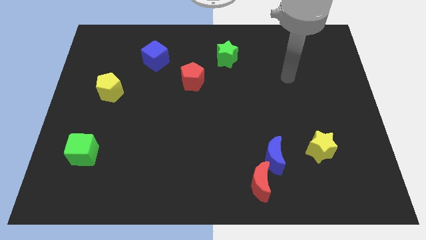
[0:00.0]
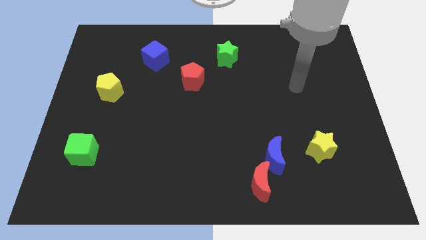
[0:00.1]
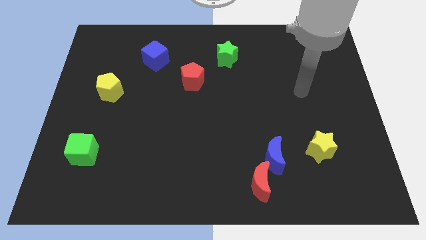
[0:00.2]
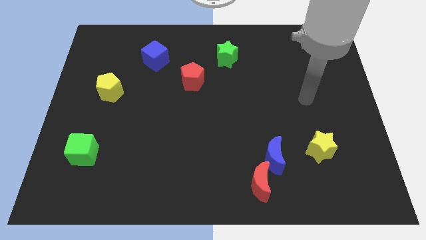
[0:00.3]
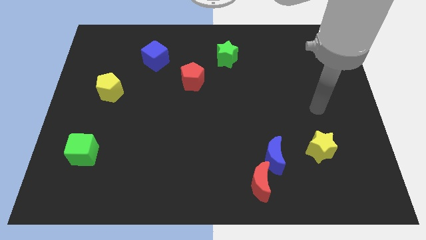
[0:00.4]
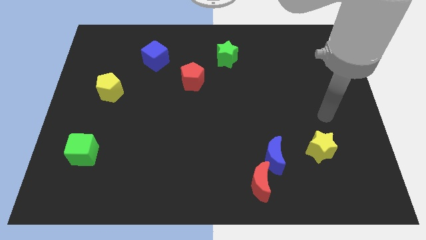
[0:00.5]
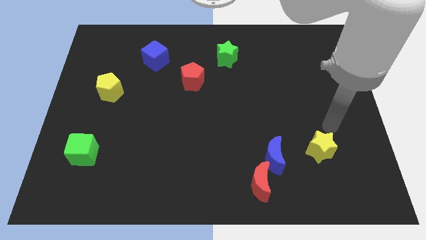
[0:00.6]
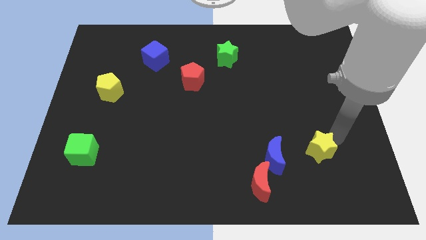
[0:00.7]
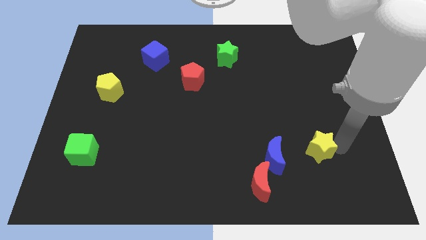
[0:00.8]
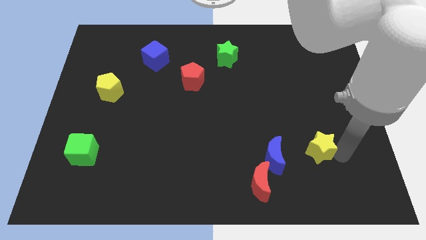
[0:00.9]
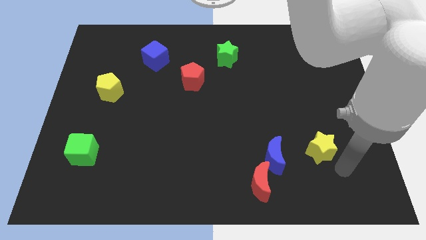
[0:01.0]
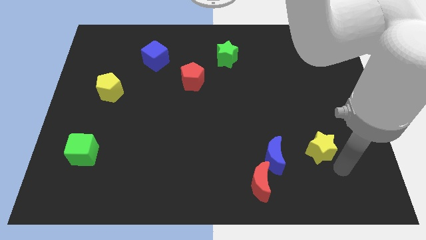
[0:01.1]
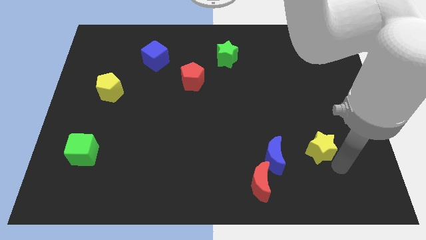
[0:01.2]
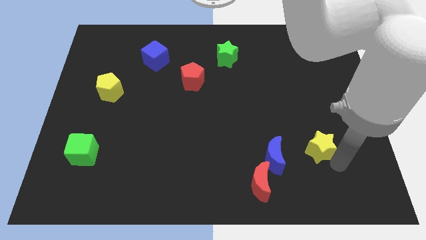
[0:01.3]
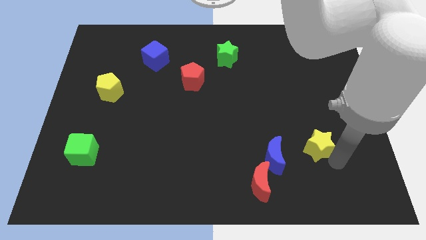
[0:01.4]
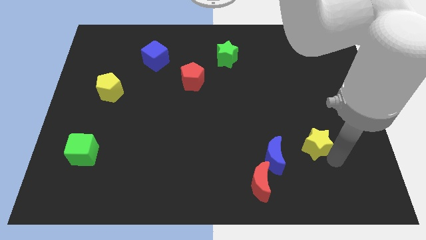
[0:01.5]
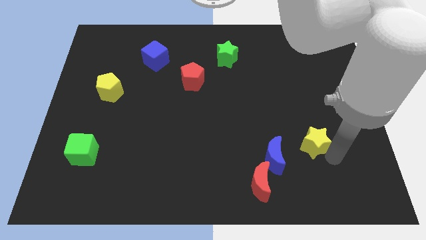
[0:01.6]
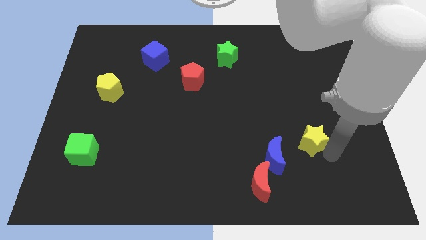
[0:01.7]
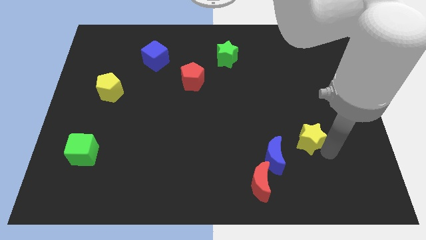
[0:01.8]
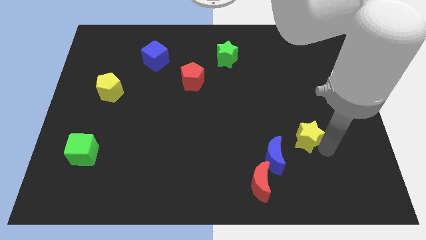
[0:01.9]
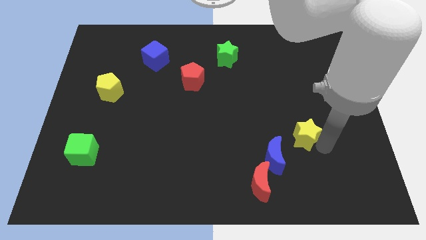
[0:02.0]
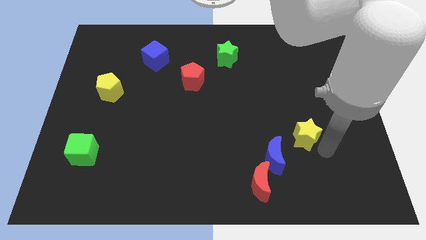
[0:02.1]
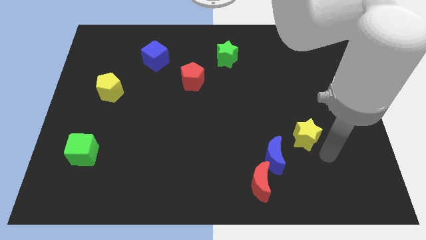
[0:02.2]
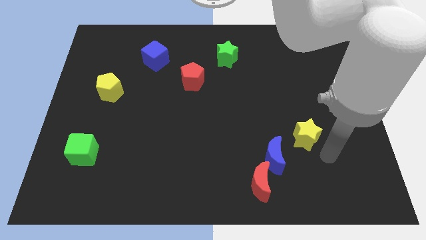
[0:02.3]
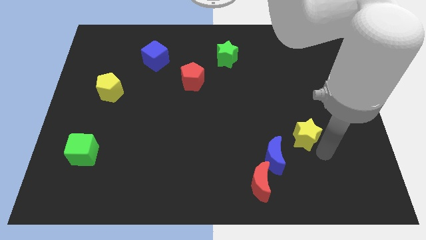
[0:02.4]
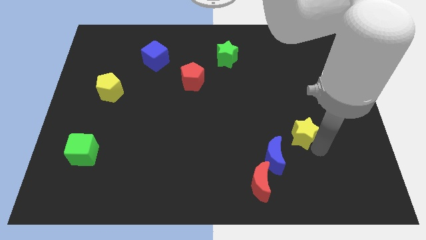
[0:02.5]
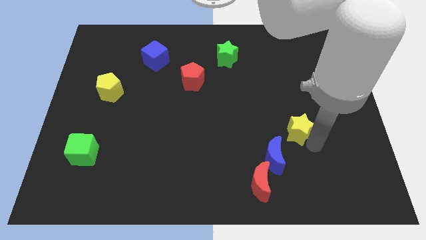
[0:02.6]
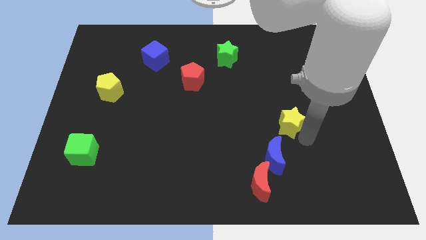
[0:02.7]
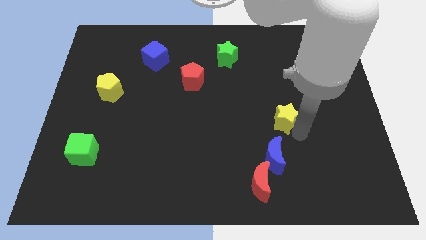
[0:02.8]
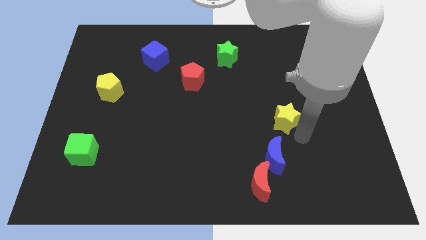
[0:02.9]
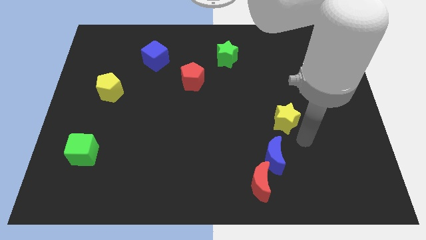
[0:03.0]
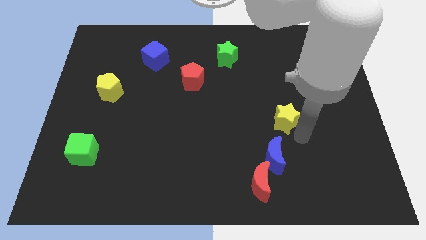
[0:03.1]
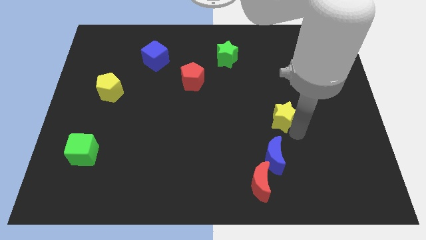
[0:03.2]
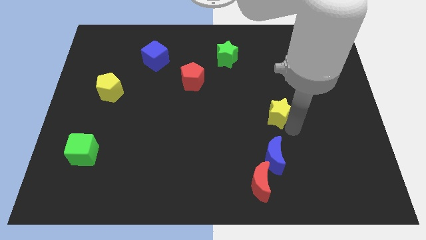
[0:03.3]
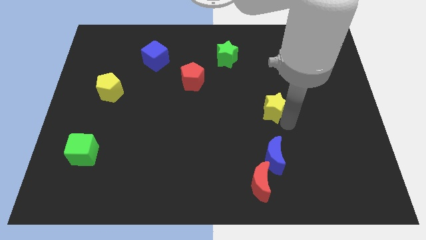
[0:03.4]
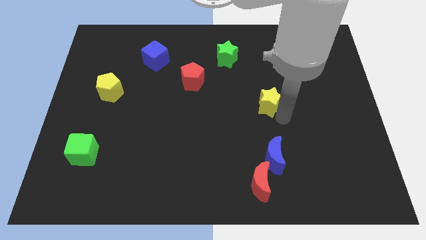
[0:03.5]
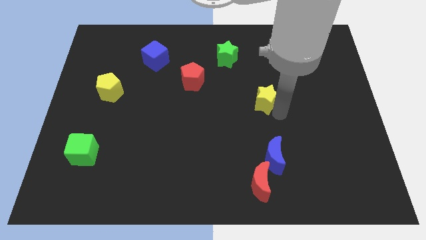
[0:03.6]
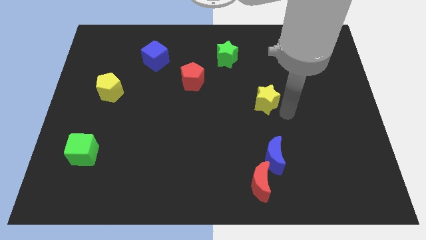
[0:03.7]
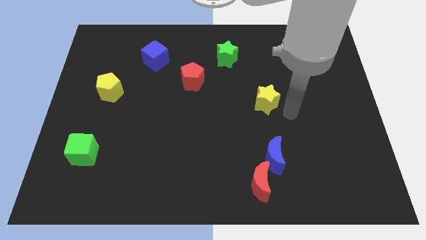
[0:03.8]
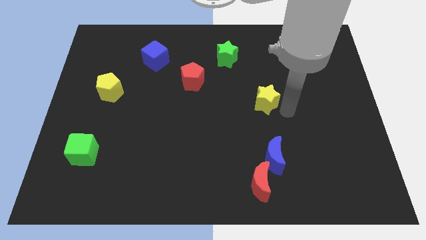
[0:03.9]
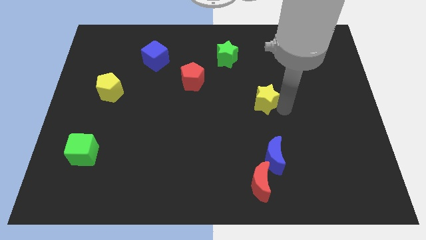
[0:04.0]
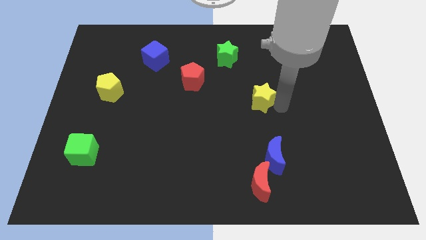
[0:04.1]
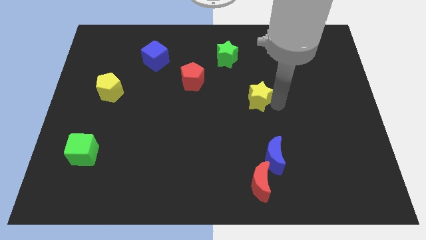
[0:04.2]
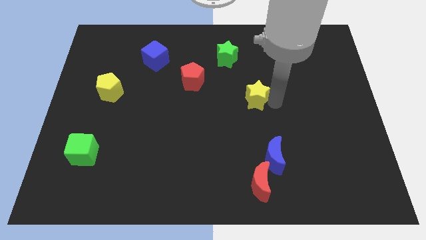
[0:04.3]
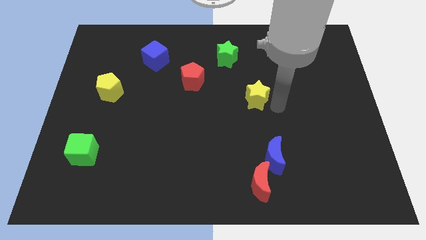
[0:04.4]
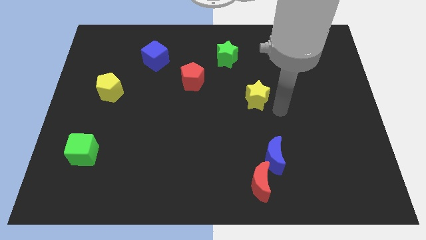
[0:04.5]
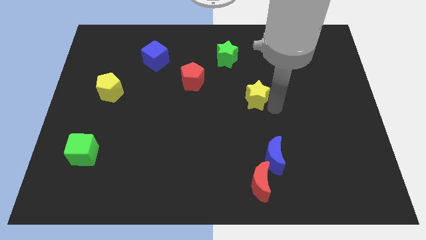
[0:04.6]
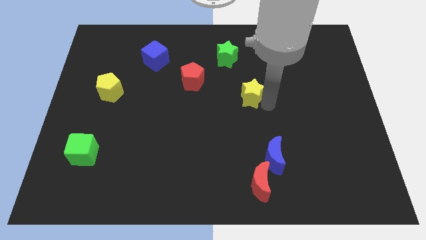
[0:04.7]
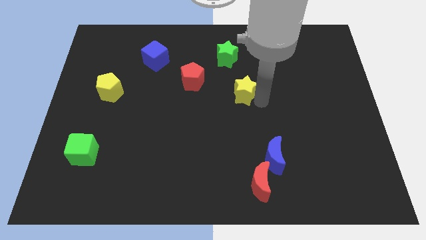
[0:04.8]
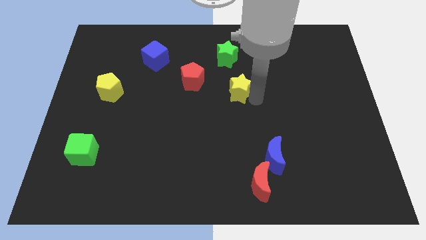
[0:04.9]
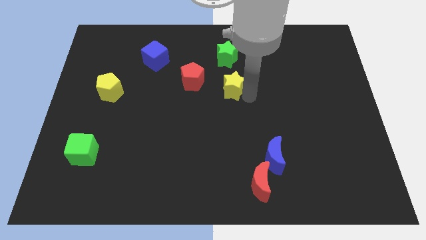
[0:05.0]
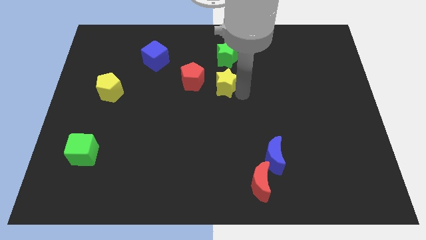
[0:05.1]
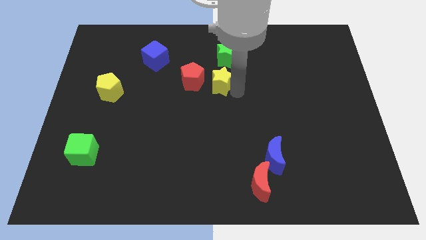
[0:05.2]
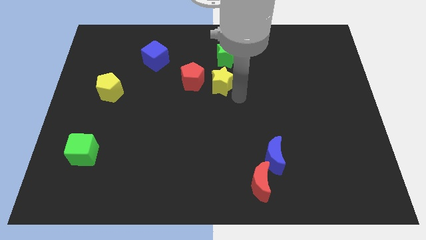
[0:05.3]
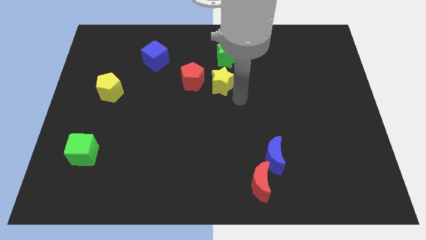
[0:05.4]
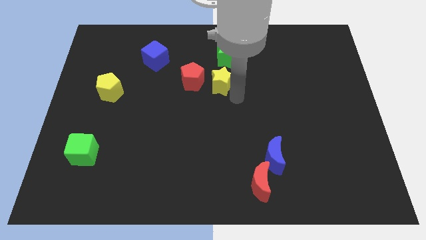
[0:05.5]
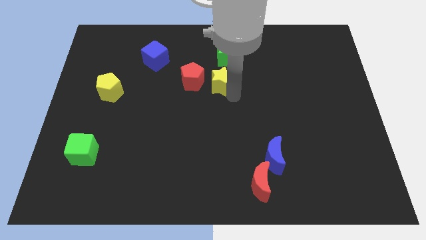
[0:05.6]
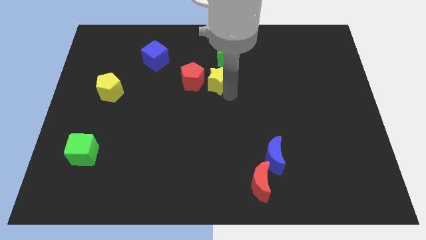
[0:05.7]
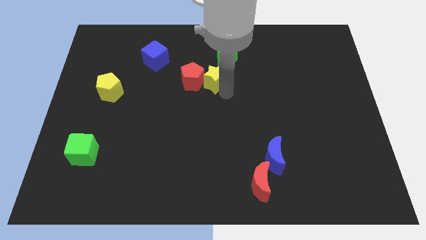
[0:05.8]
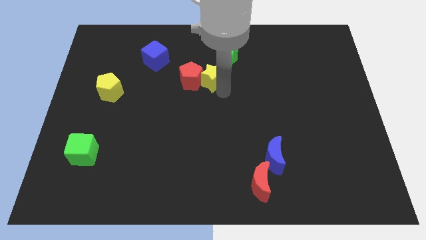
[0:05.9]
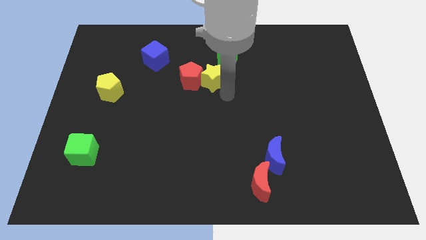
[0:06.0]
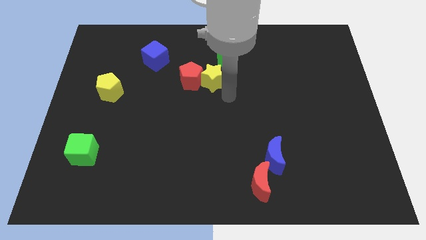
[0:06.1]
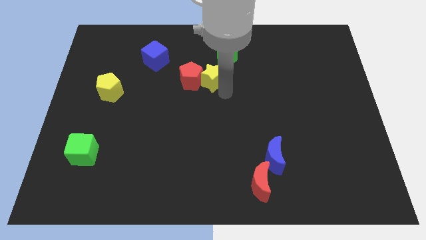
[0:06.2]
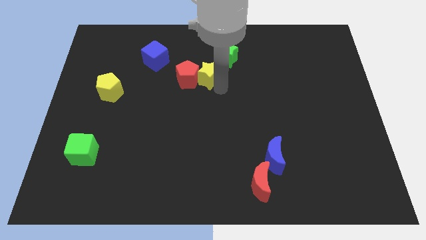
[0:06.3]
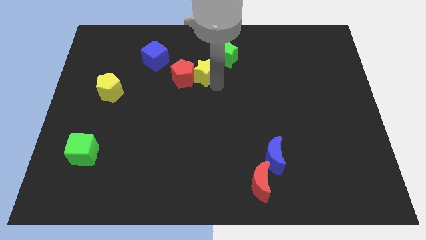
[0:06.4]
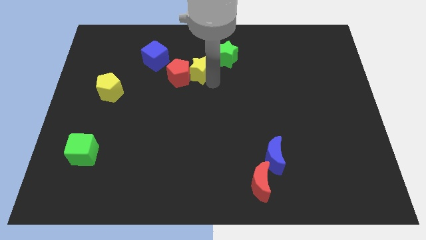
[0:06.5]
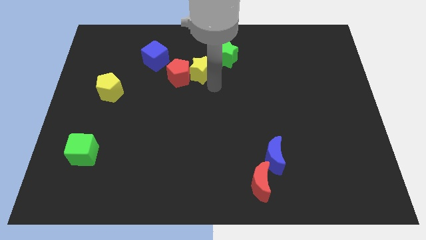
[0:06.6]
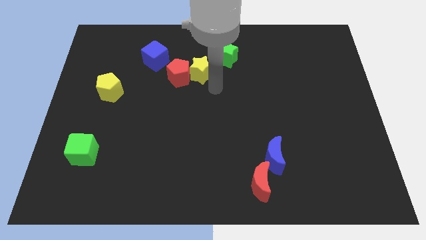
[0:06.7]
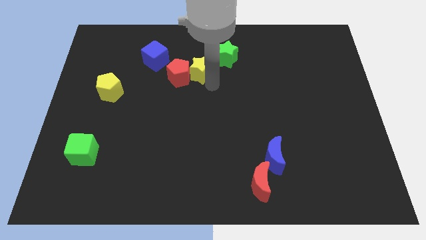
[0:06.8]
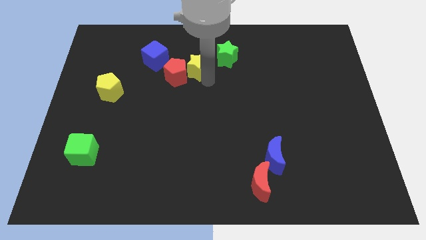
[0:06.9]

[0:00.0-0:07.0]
slide the yellow star to the left of the green star
